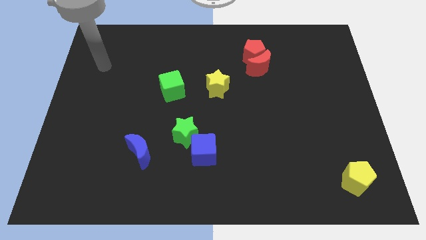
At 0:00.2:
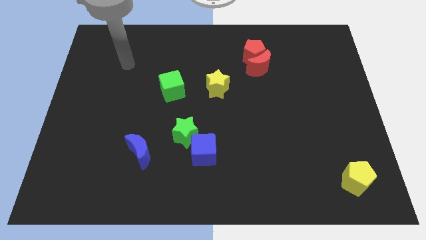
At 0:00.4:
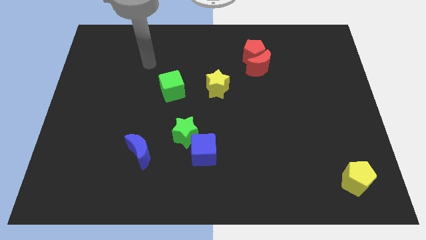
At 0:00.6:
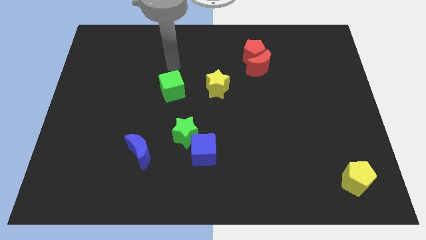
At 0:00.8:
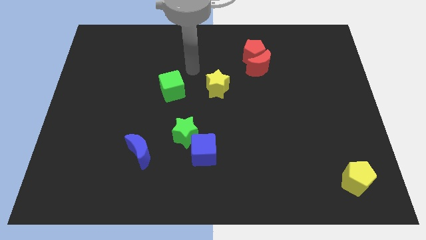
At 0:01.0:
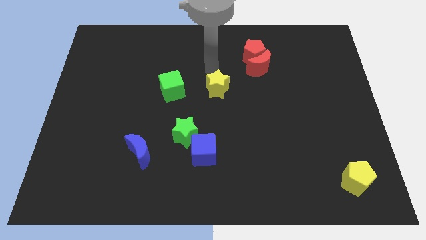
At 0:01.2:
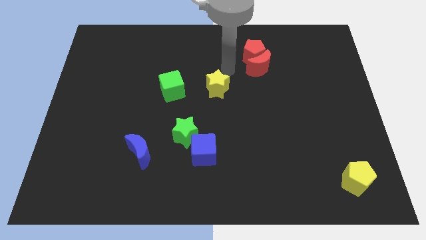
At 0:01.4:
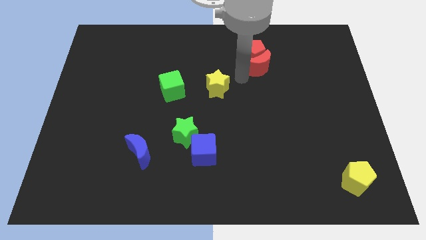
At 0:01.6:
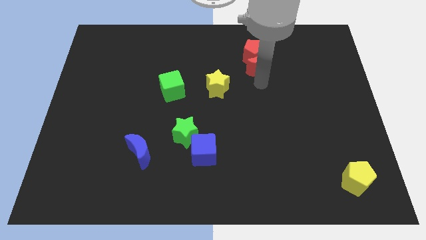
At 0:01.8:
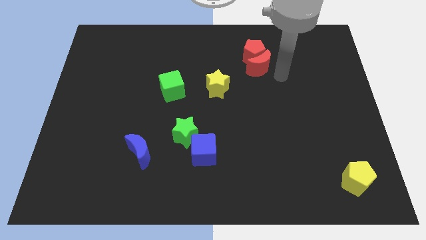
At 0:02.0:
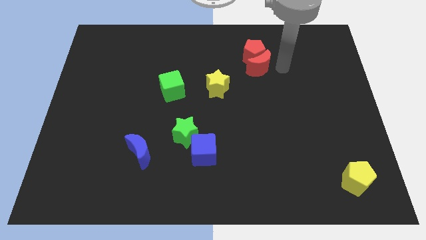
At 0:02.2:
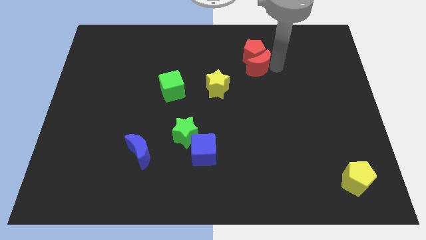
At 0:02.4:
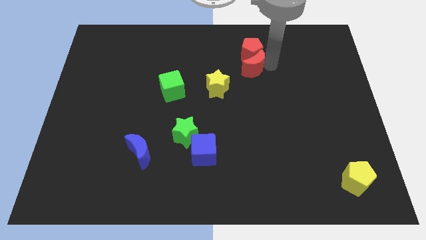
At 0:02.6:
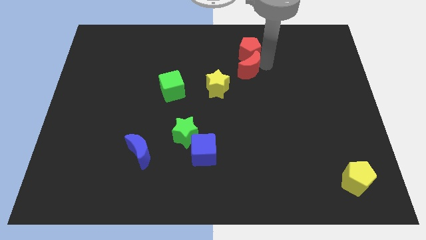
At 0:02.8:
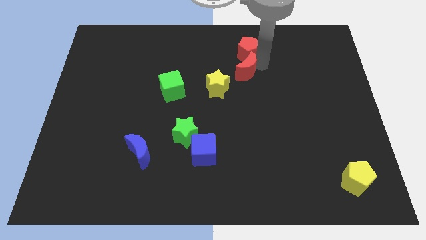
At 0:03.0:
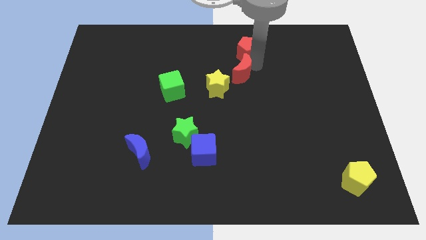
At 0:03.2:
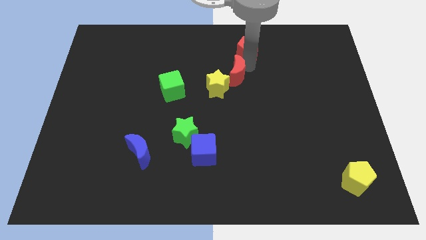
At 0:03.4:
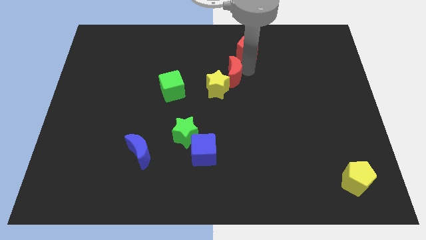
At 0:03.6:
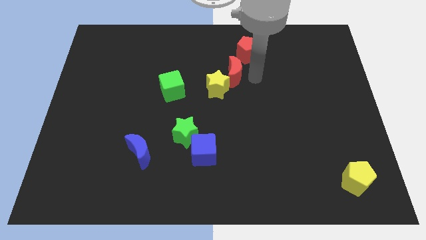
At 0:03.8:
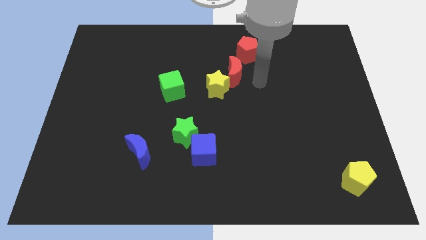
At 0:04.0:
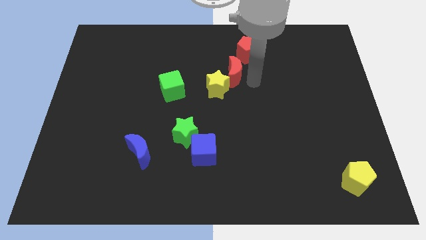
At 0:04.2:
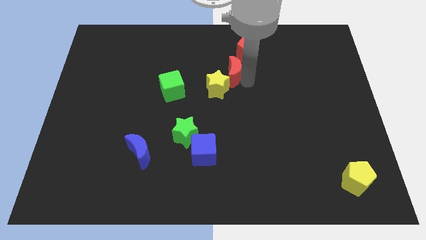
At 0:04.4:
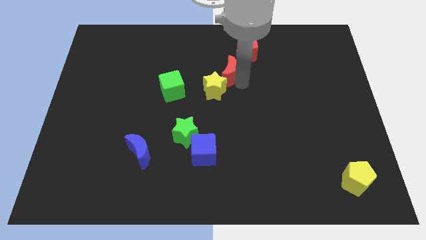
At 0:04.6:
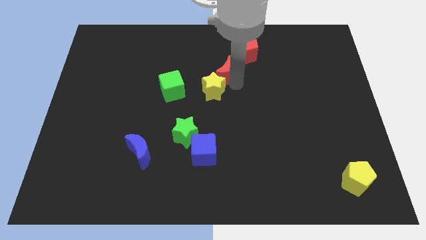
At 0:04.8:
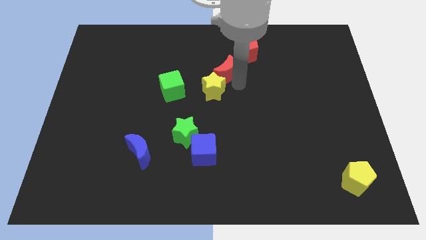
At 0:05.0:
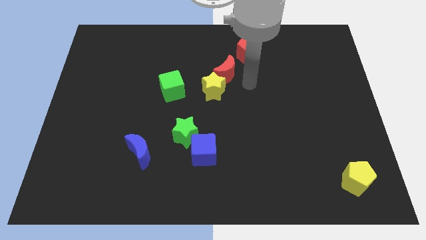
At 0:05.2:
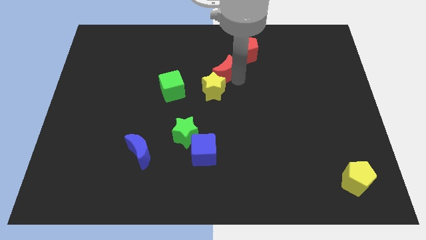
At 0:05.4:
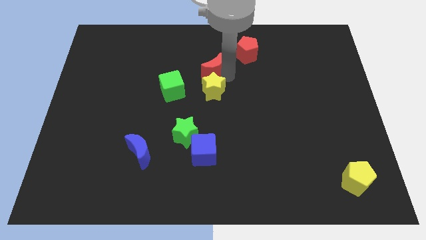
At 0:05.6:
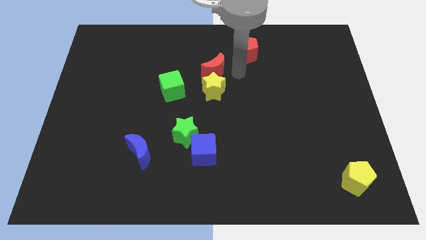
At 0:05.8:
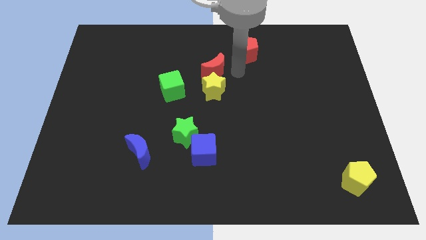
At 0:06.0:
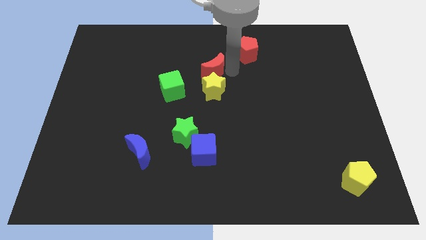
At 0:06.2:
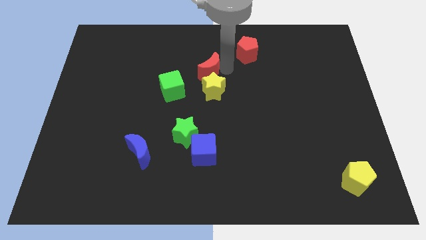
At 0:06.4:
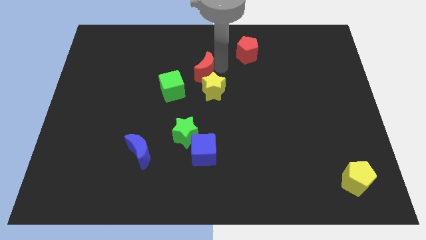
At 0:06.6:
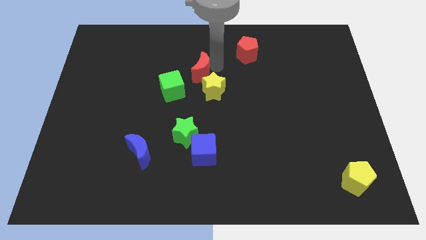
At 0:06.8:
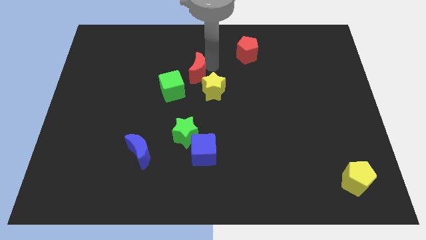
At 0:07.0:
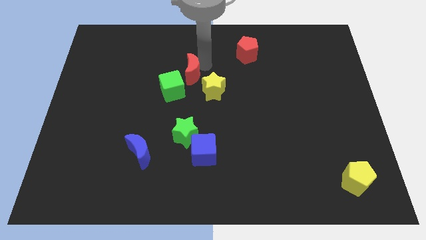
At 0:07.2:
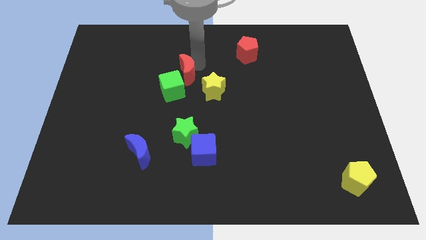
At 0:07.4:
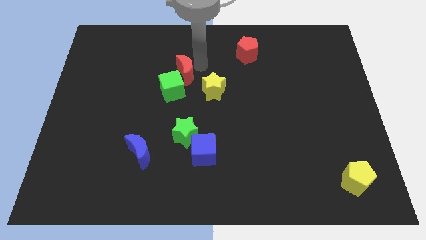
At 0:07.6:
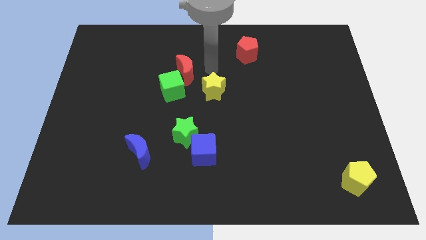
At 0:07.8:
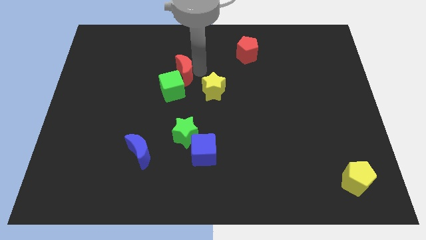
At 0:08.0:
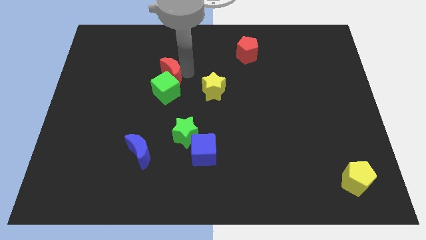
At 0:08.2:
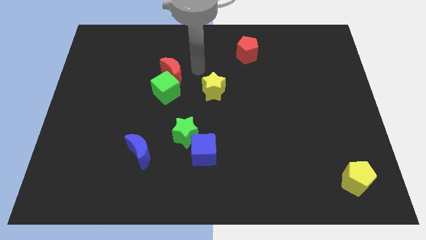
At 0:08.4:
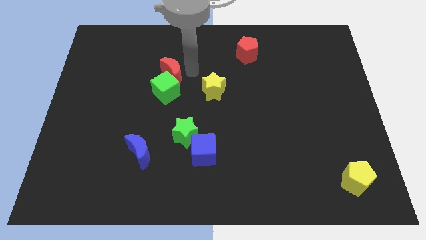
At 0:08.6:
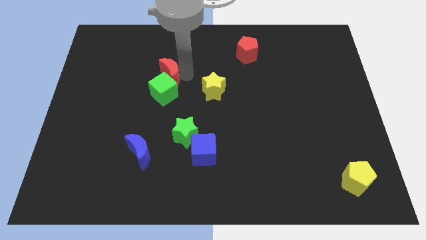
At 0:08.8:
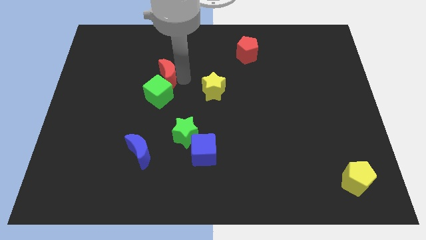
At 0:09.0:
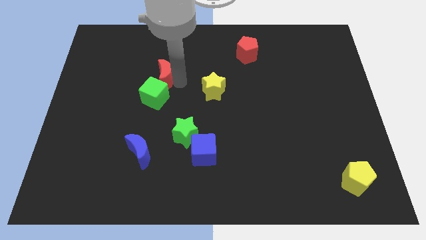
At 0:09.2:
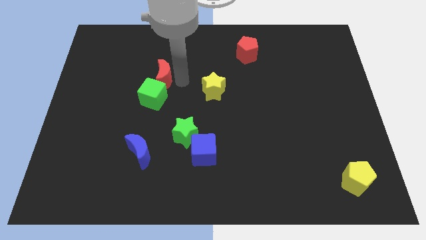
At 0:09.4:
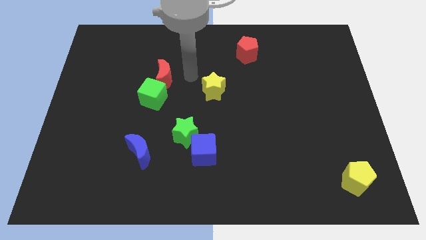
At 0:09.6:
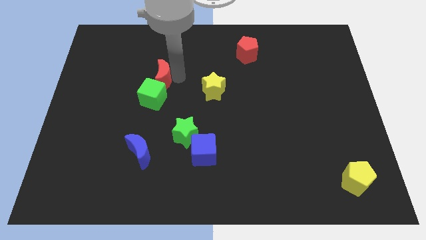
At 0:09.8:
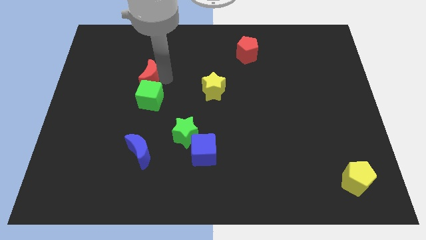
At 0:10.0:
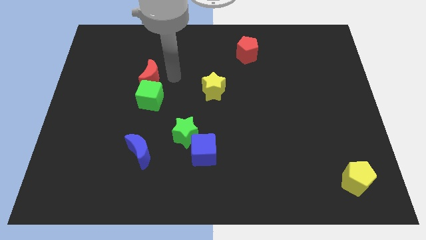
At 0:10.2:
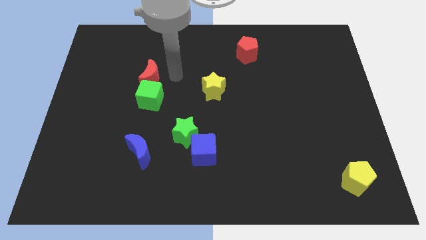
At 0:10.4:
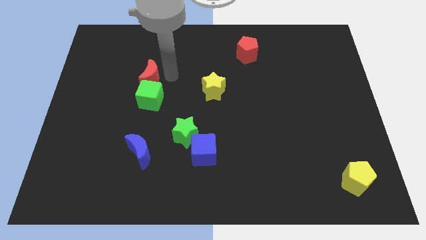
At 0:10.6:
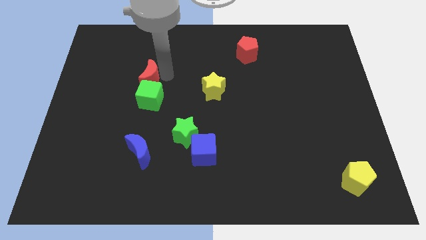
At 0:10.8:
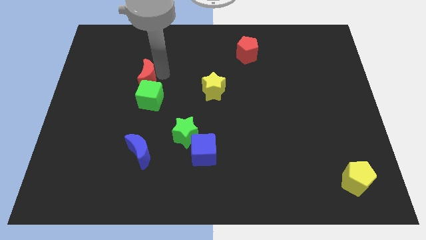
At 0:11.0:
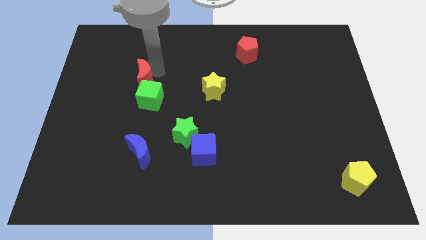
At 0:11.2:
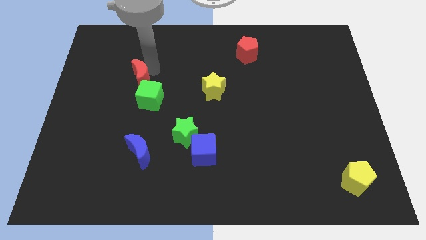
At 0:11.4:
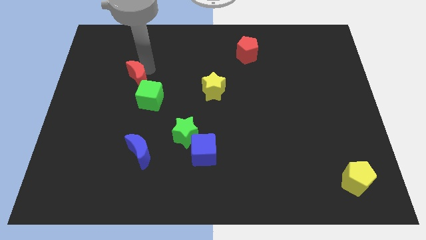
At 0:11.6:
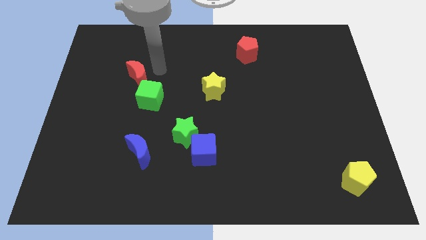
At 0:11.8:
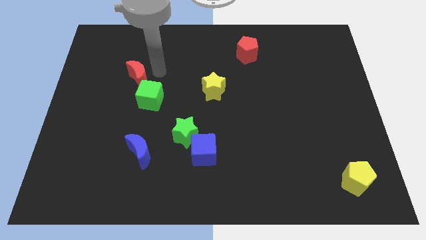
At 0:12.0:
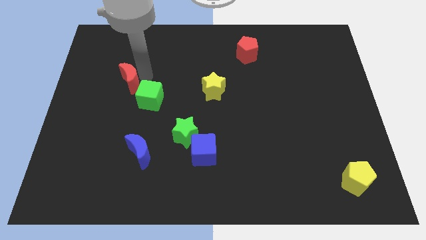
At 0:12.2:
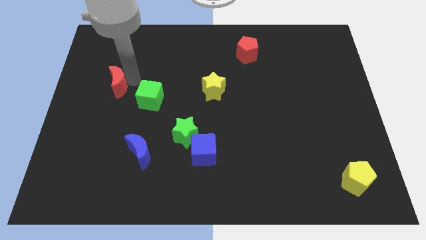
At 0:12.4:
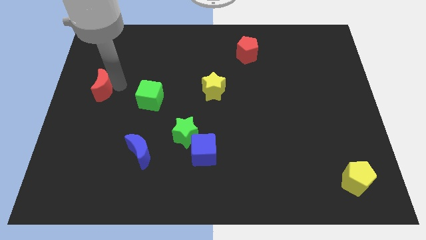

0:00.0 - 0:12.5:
push the red moon to the center left

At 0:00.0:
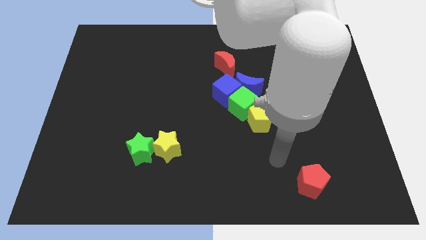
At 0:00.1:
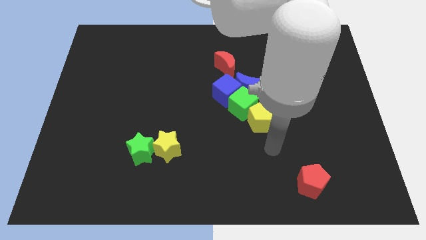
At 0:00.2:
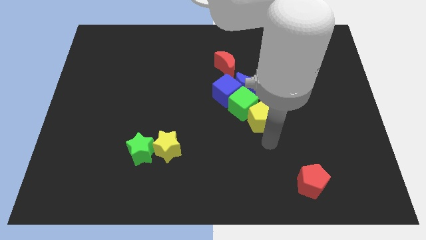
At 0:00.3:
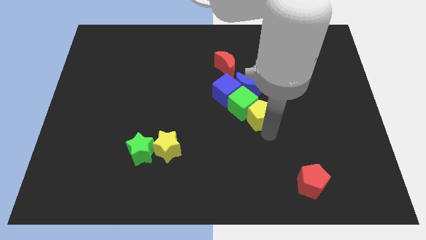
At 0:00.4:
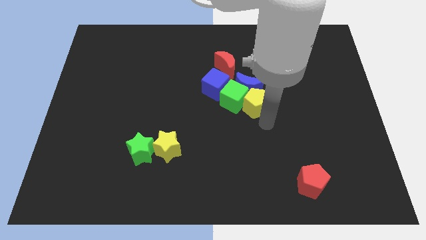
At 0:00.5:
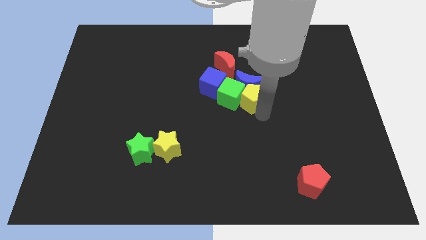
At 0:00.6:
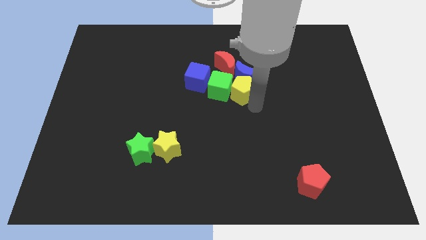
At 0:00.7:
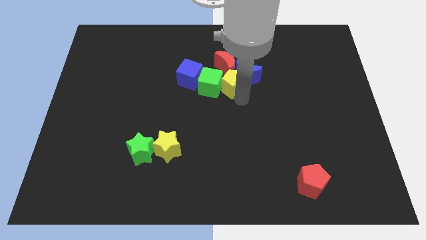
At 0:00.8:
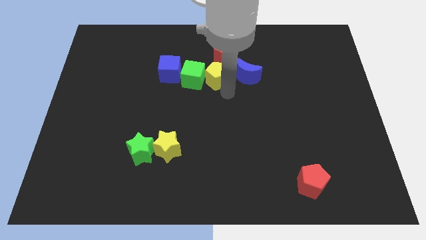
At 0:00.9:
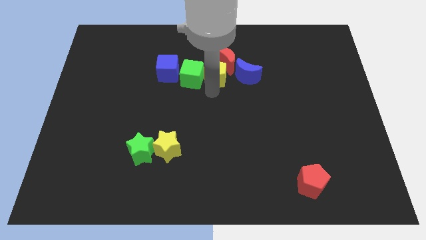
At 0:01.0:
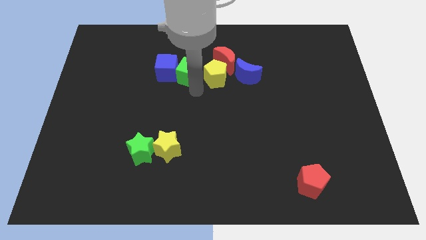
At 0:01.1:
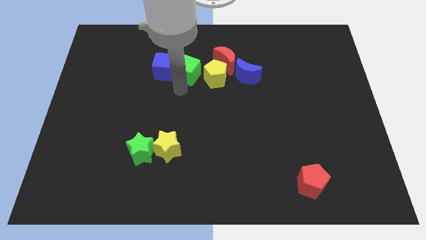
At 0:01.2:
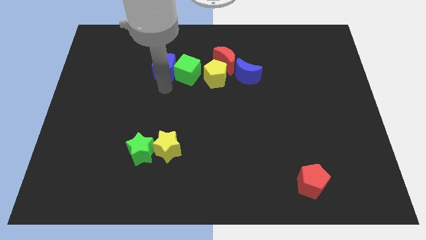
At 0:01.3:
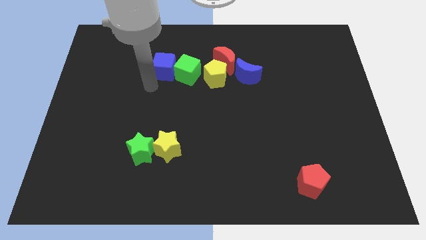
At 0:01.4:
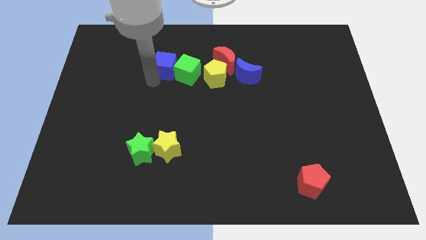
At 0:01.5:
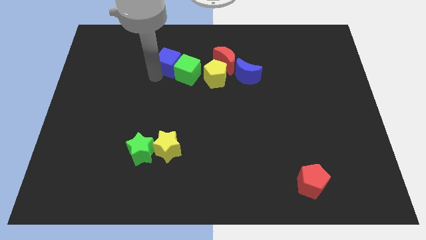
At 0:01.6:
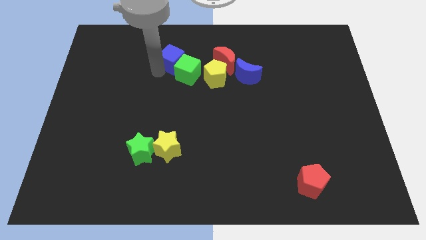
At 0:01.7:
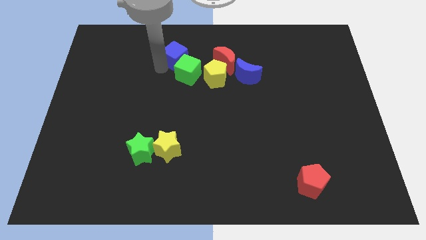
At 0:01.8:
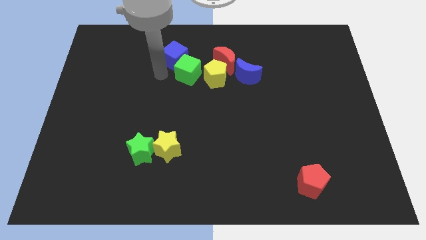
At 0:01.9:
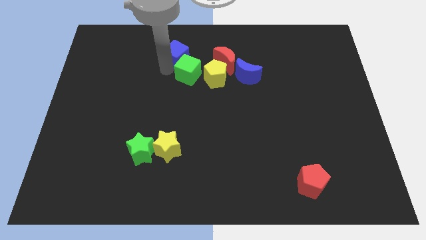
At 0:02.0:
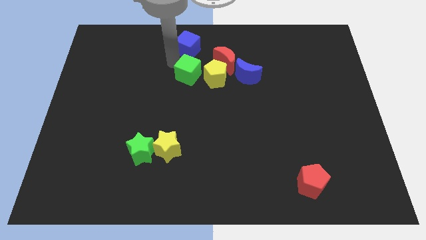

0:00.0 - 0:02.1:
slide the blue cube to the towards your base
